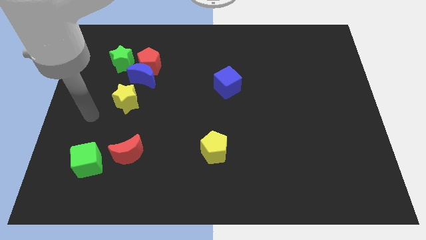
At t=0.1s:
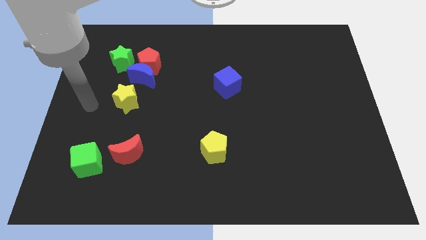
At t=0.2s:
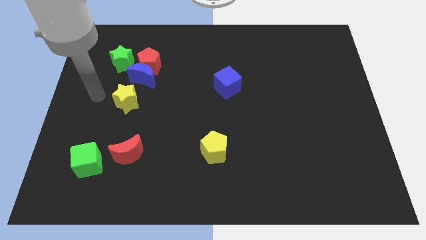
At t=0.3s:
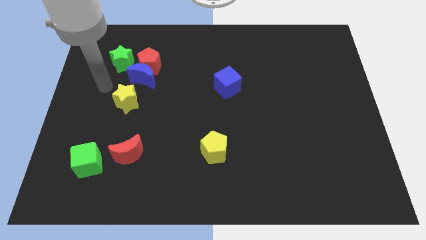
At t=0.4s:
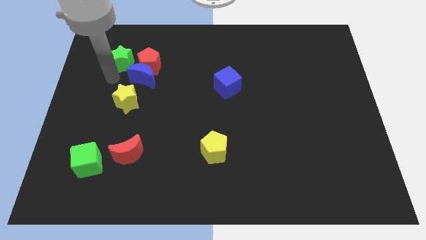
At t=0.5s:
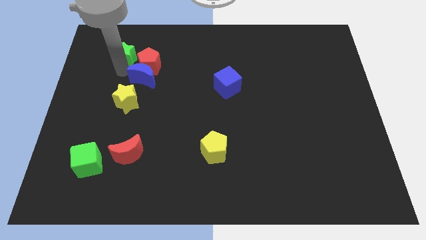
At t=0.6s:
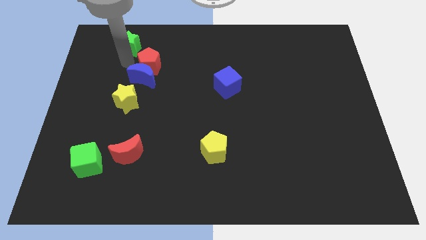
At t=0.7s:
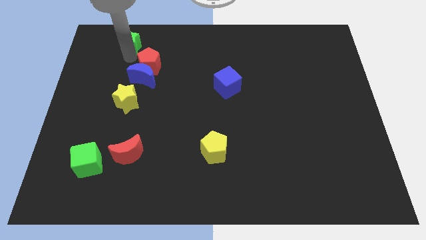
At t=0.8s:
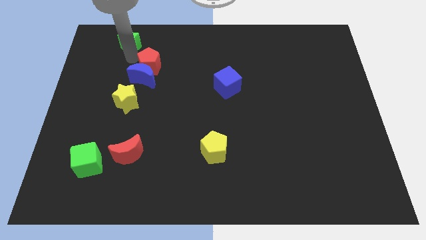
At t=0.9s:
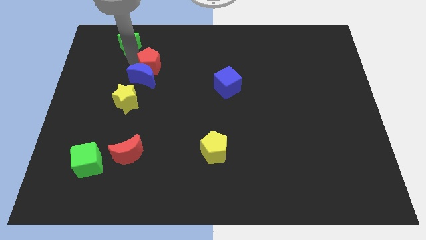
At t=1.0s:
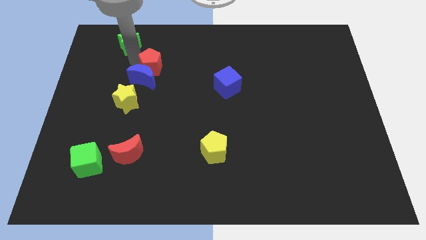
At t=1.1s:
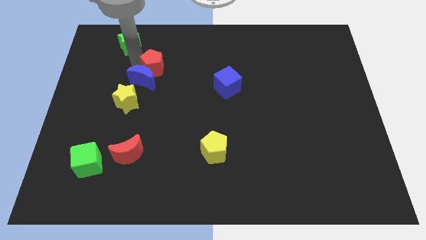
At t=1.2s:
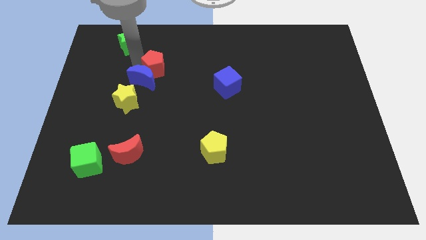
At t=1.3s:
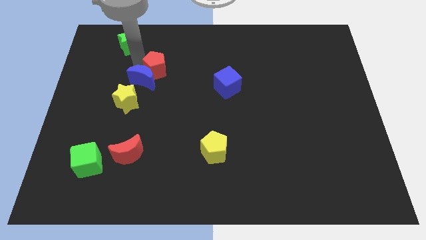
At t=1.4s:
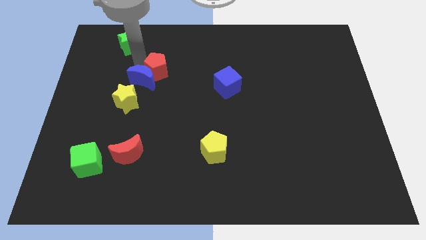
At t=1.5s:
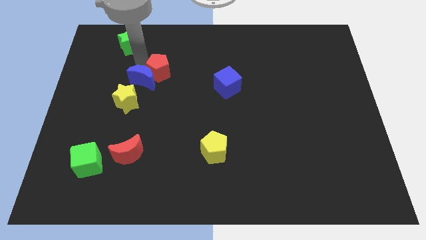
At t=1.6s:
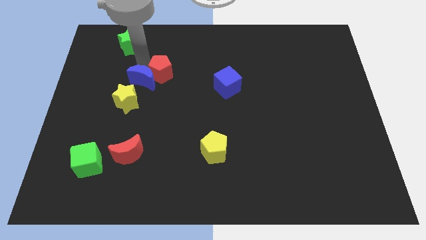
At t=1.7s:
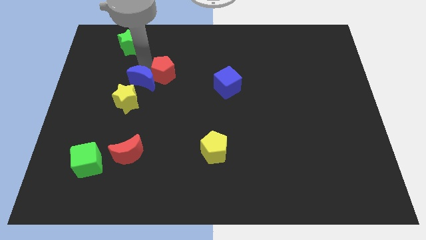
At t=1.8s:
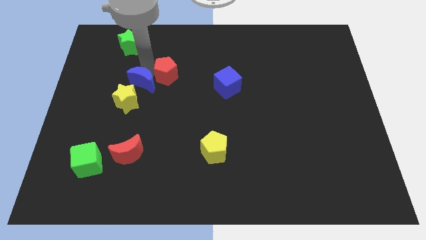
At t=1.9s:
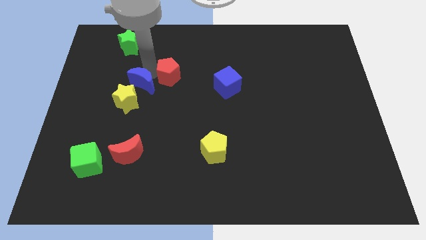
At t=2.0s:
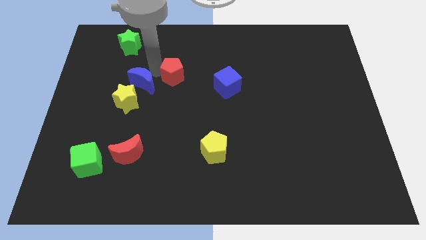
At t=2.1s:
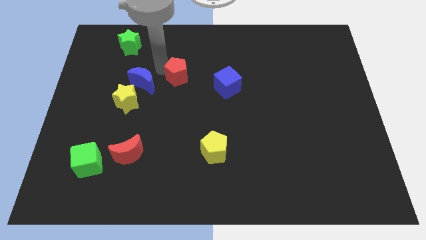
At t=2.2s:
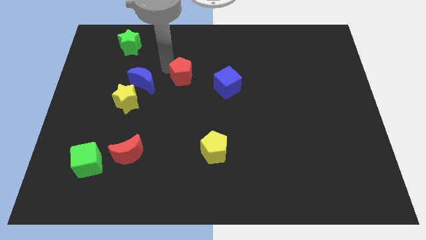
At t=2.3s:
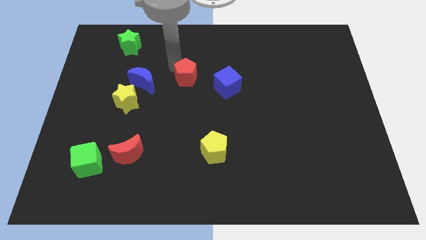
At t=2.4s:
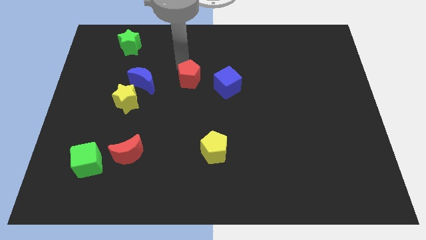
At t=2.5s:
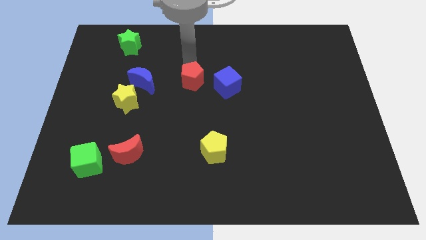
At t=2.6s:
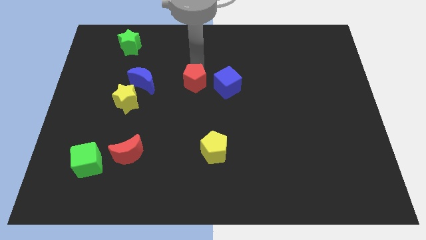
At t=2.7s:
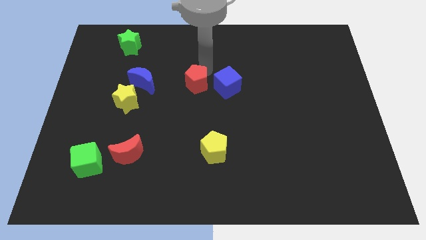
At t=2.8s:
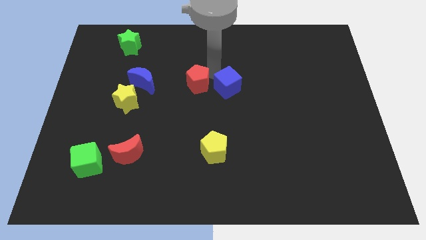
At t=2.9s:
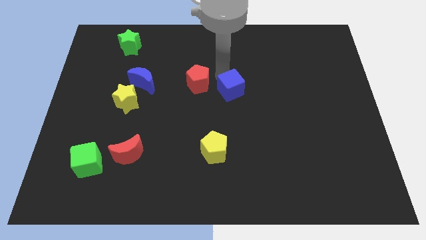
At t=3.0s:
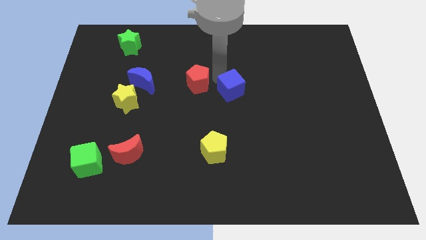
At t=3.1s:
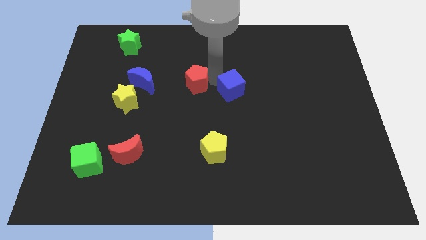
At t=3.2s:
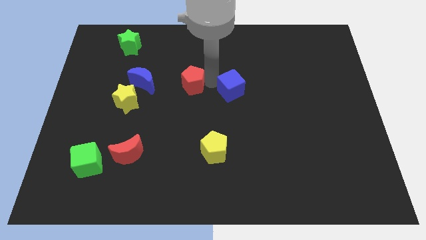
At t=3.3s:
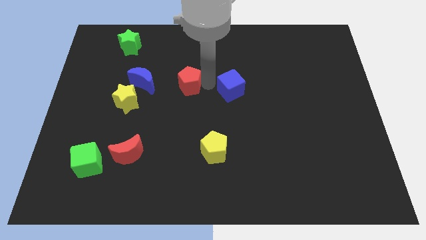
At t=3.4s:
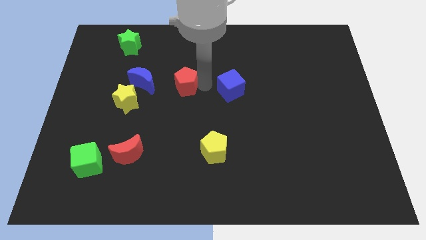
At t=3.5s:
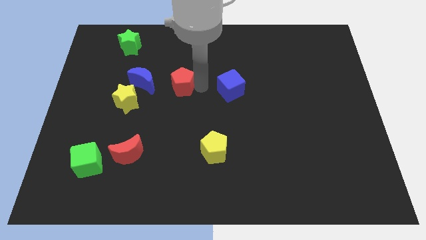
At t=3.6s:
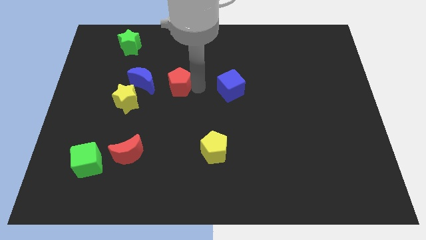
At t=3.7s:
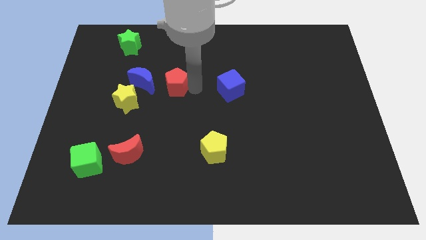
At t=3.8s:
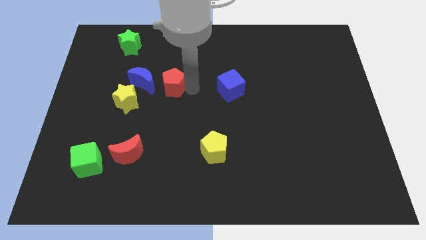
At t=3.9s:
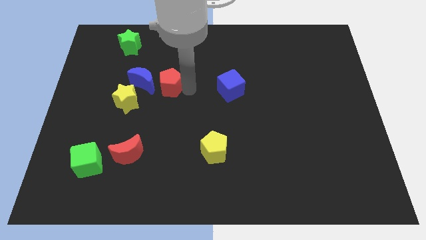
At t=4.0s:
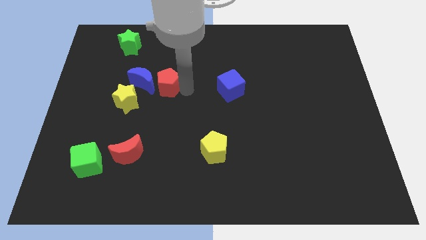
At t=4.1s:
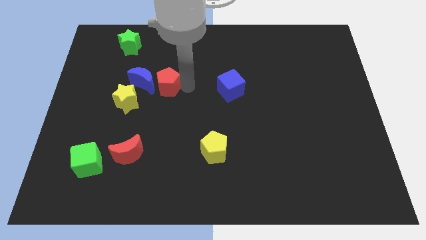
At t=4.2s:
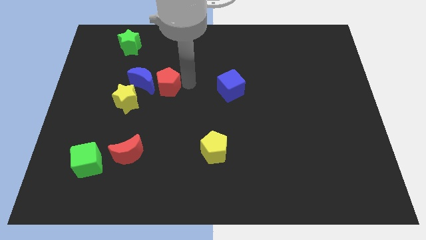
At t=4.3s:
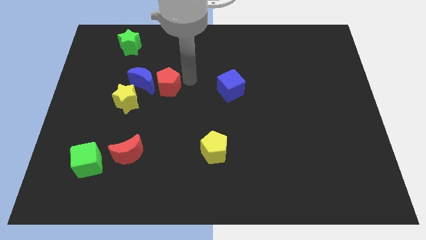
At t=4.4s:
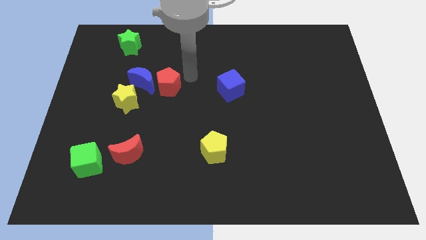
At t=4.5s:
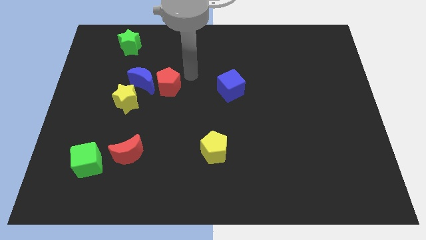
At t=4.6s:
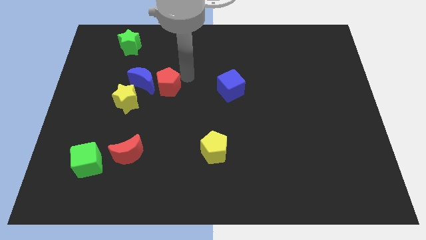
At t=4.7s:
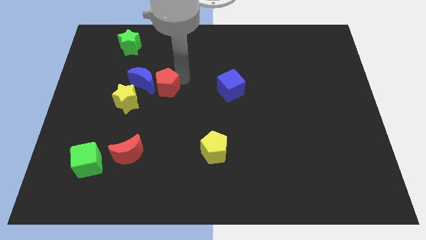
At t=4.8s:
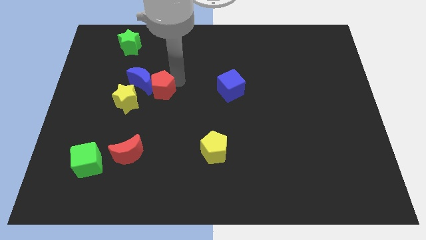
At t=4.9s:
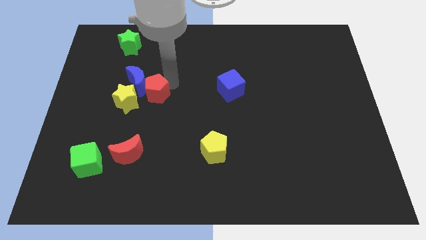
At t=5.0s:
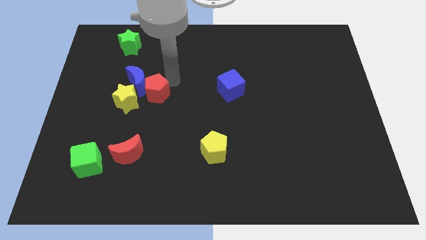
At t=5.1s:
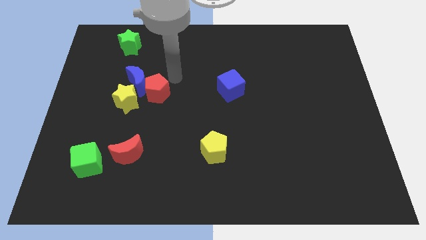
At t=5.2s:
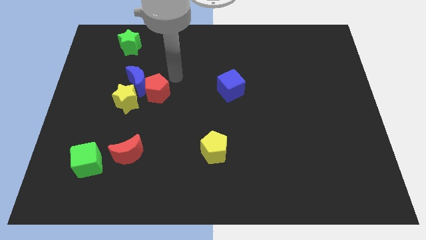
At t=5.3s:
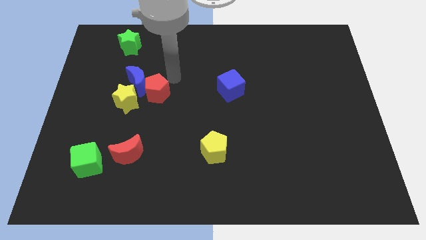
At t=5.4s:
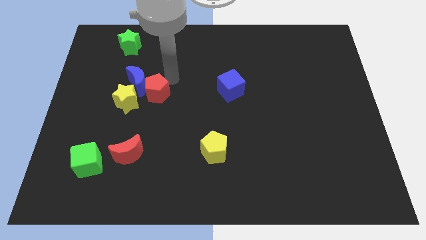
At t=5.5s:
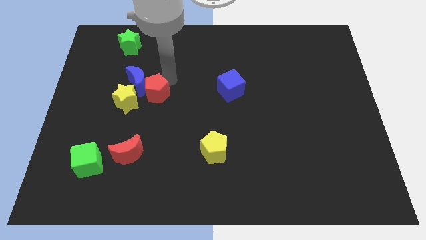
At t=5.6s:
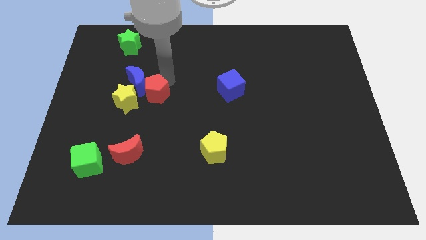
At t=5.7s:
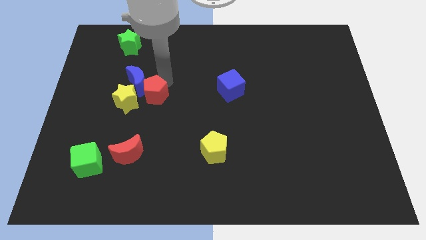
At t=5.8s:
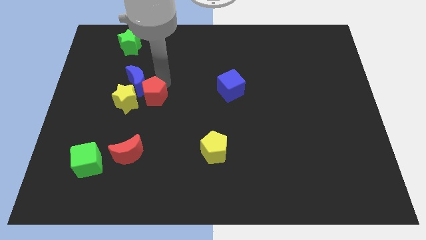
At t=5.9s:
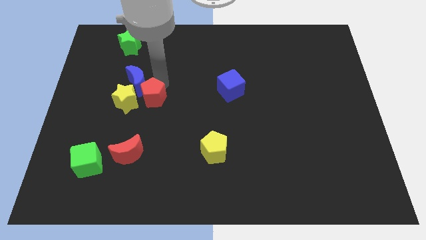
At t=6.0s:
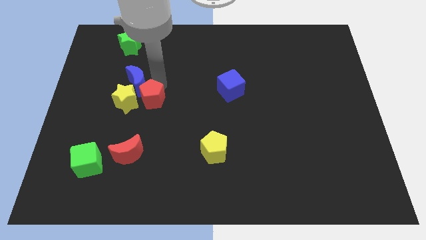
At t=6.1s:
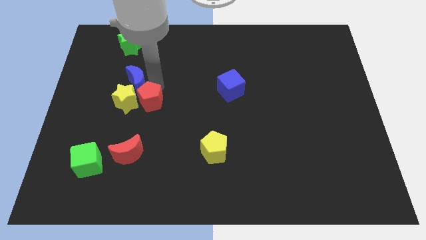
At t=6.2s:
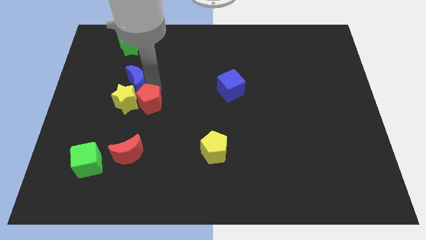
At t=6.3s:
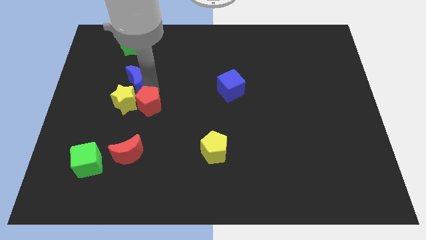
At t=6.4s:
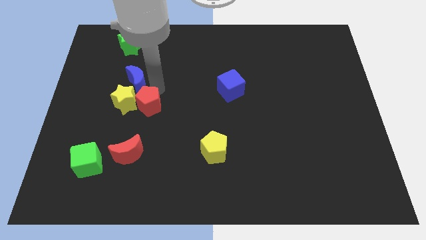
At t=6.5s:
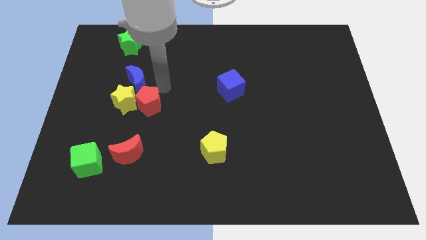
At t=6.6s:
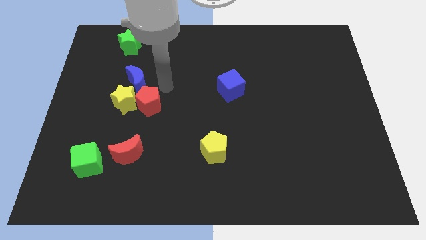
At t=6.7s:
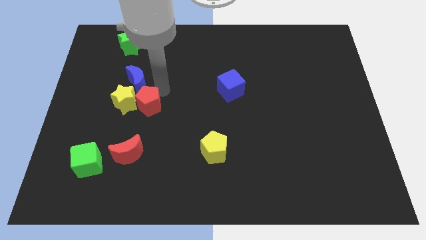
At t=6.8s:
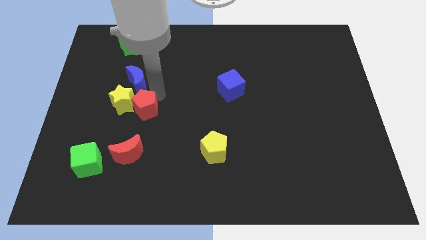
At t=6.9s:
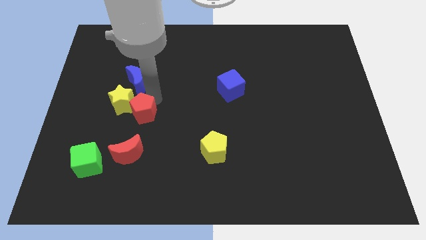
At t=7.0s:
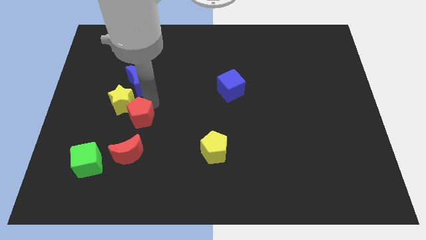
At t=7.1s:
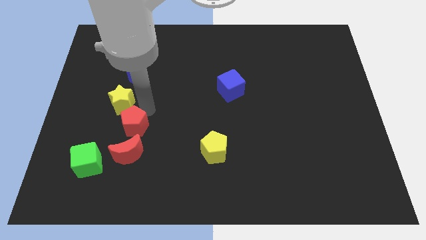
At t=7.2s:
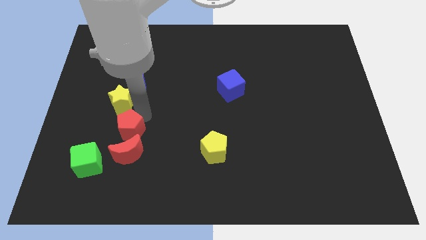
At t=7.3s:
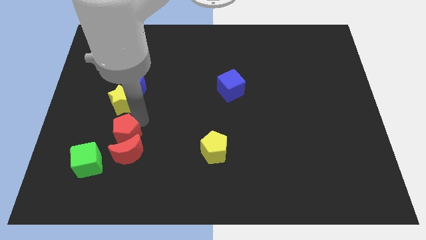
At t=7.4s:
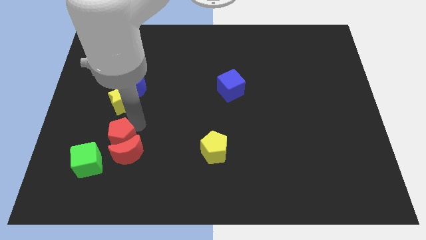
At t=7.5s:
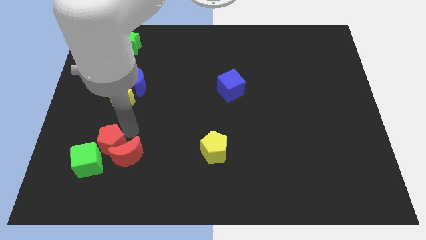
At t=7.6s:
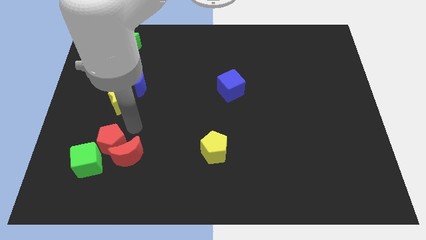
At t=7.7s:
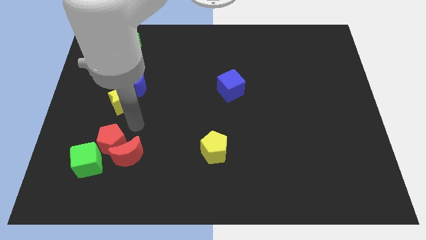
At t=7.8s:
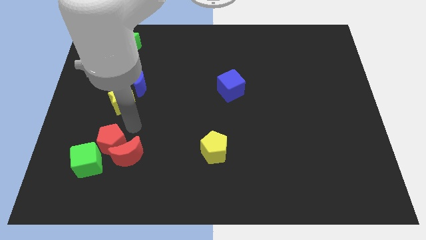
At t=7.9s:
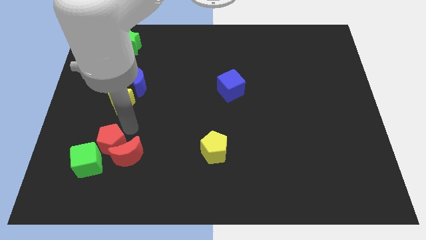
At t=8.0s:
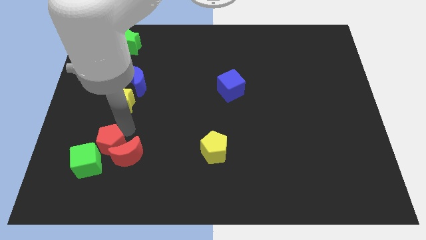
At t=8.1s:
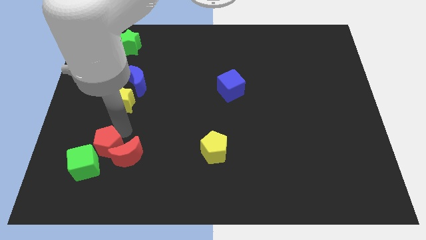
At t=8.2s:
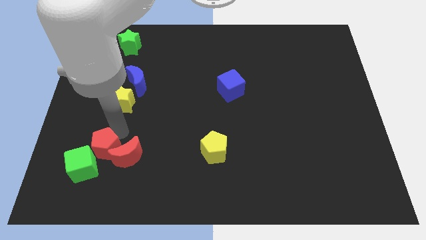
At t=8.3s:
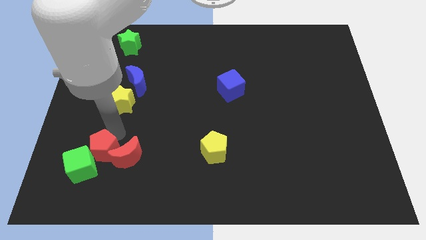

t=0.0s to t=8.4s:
put the red pentagon close to the green cube
